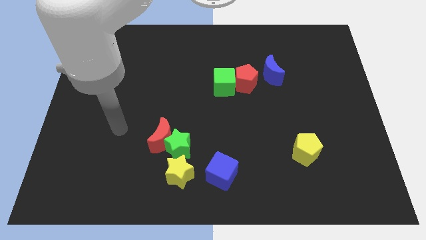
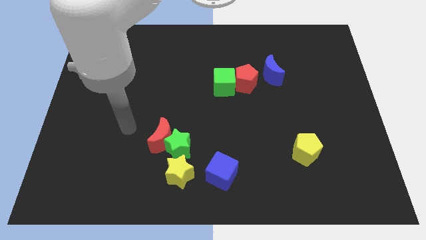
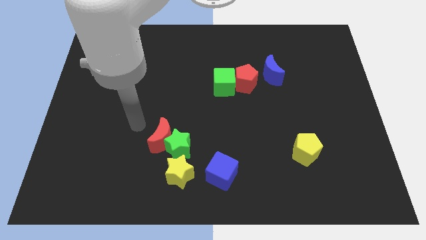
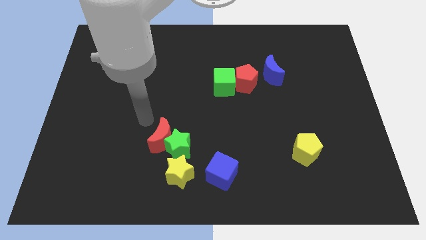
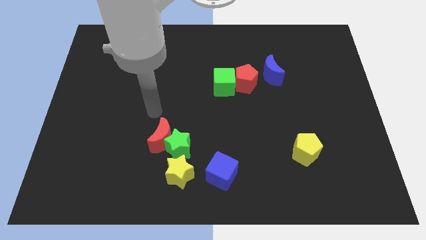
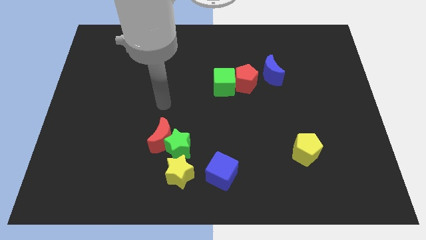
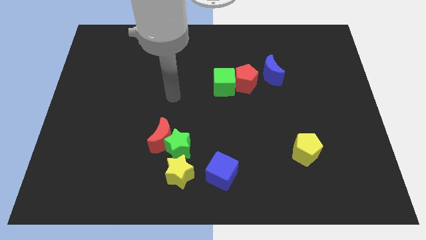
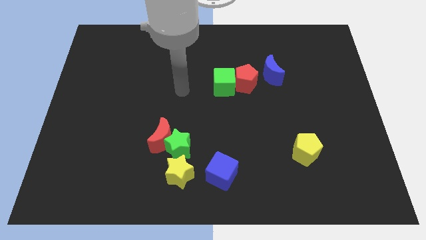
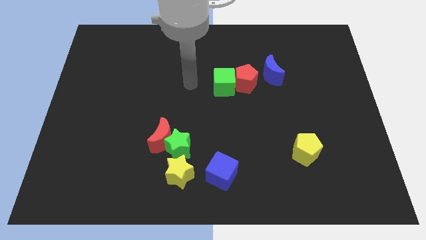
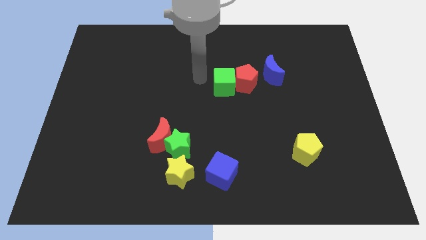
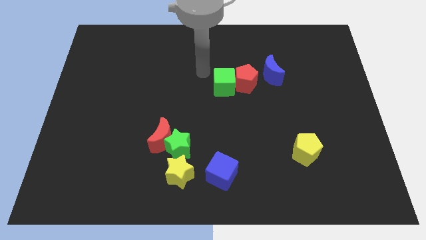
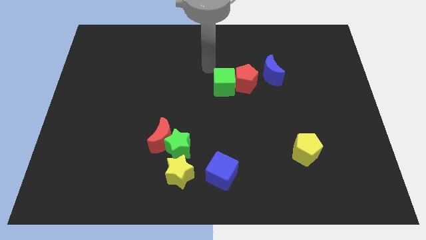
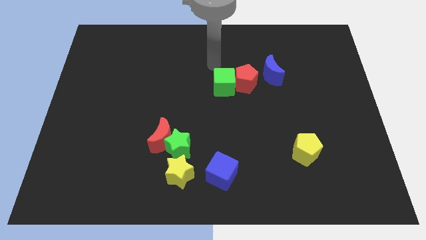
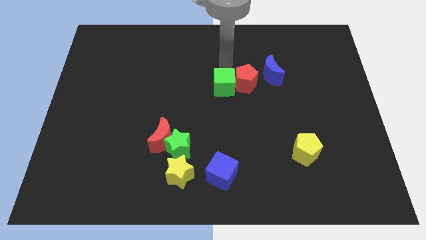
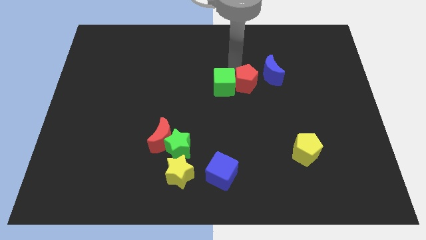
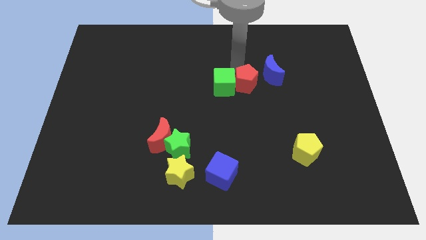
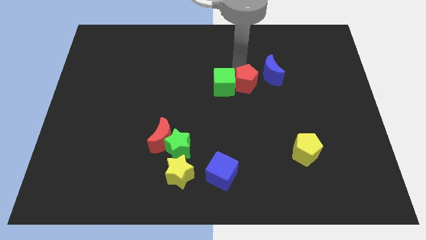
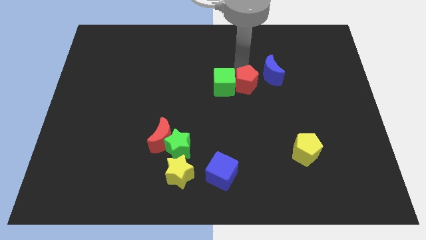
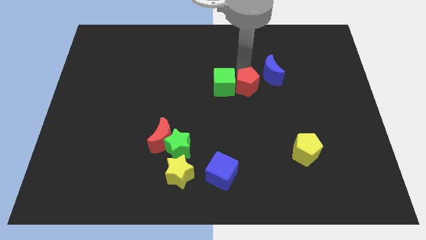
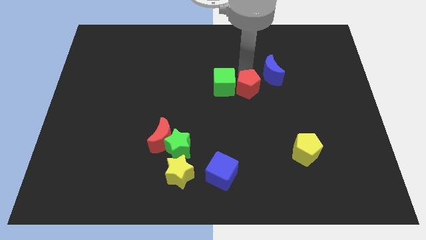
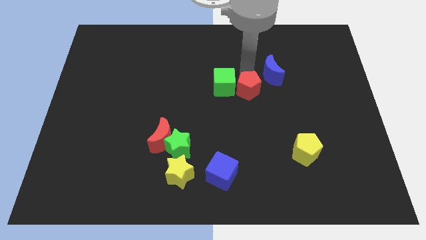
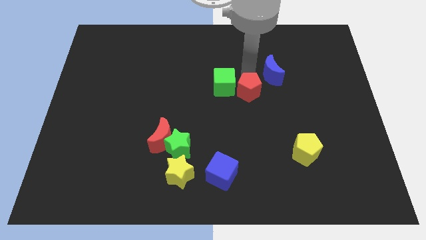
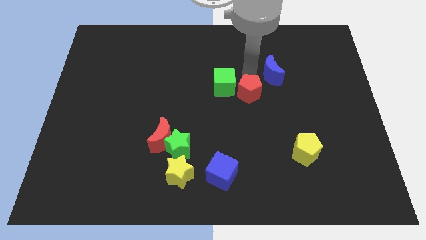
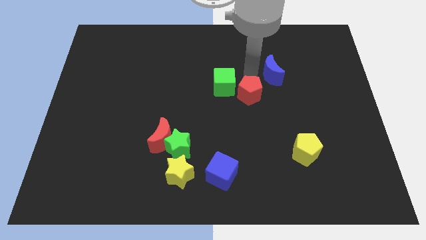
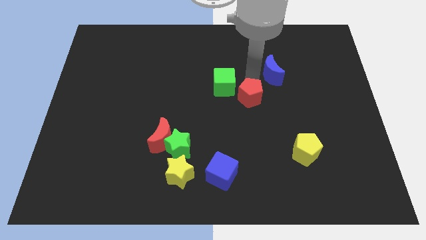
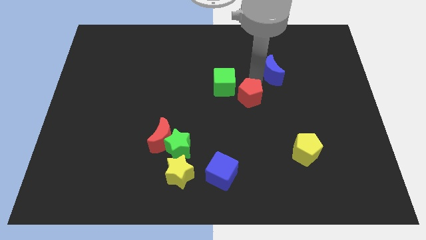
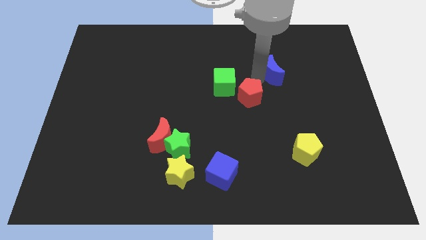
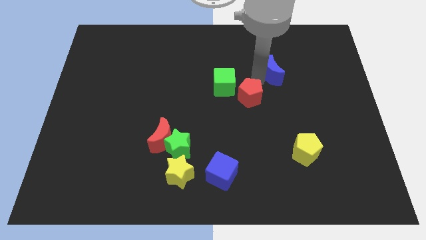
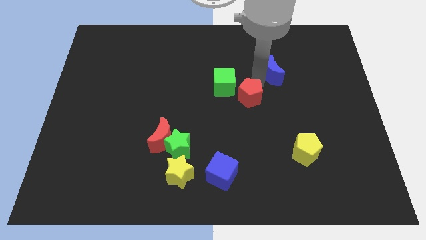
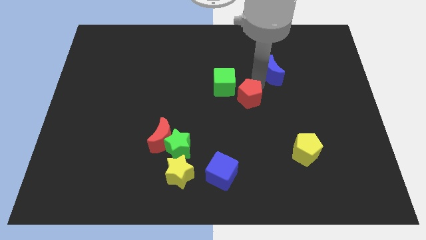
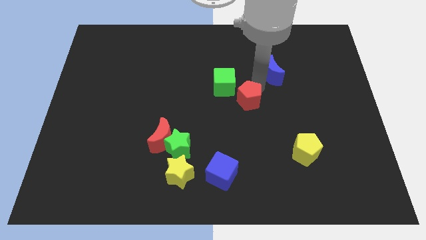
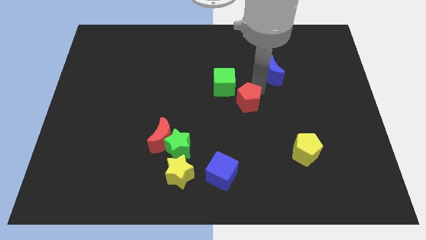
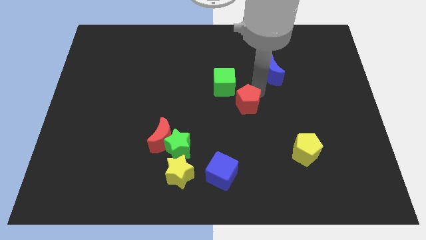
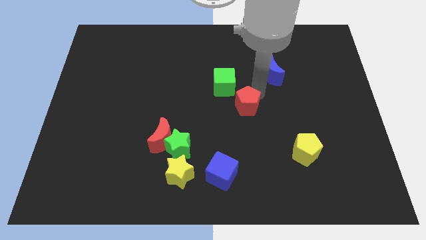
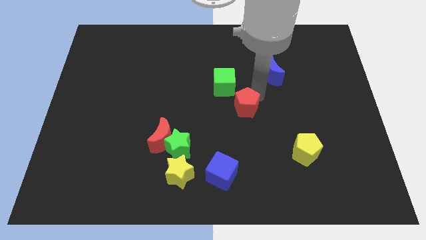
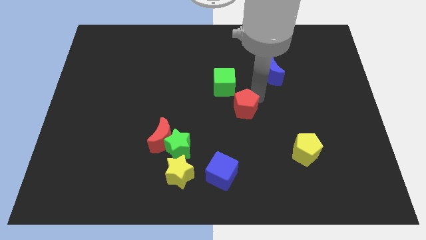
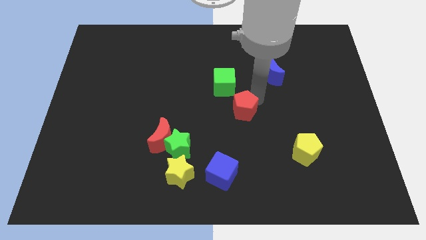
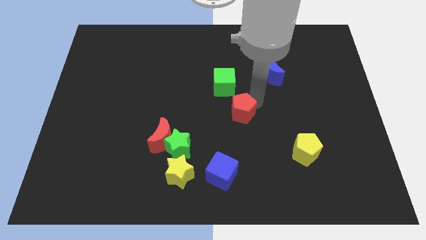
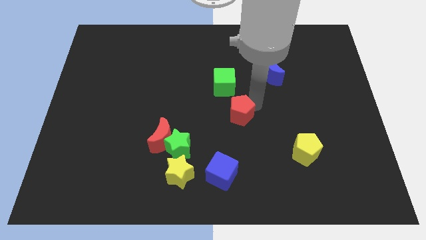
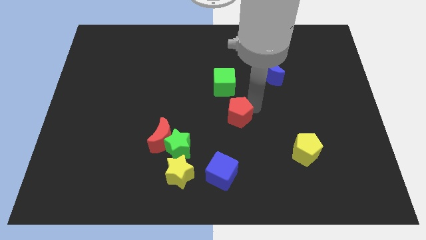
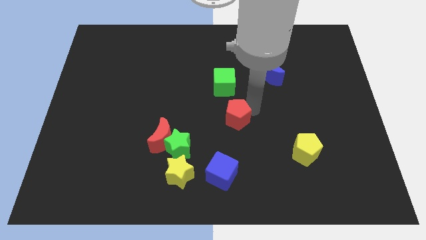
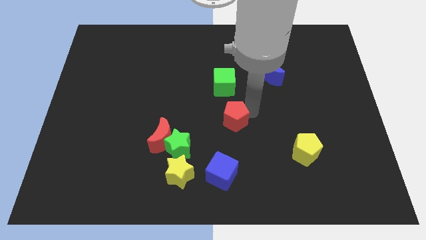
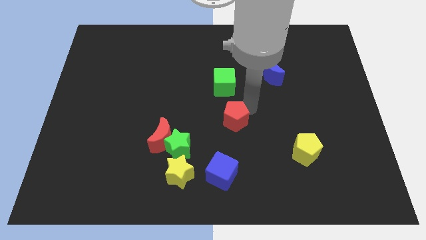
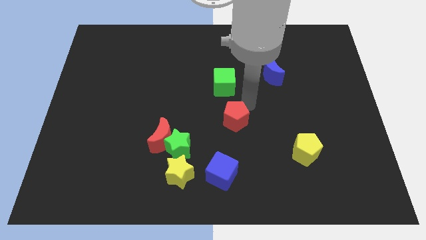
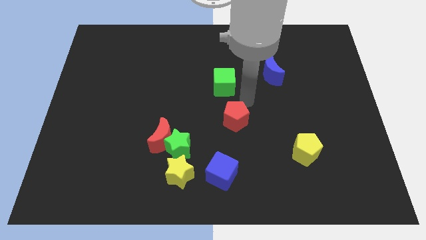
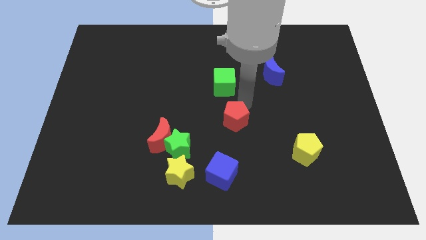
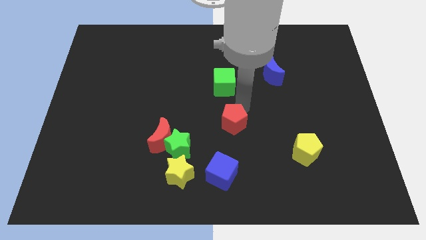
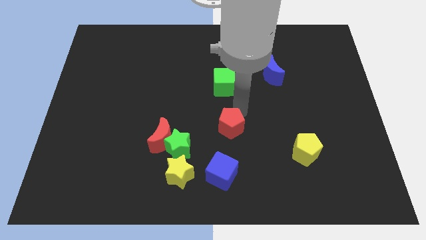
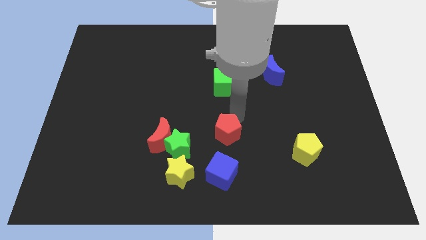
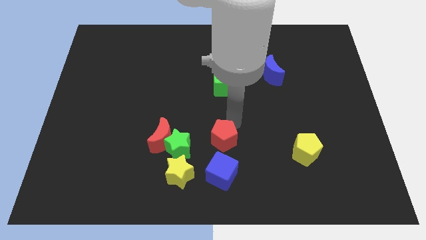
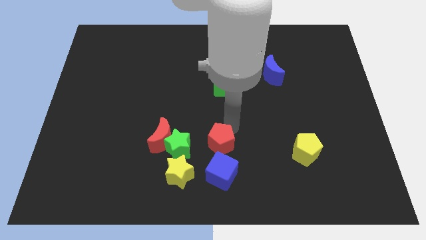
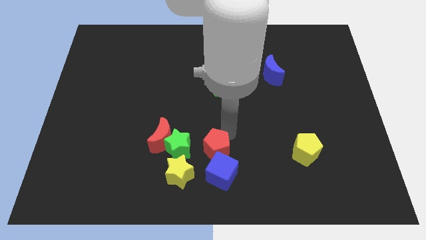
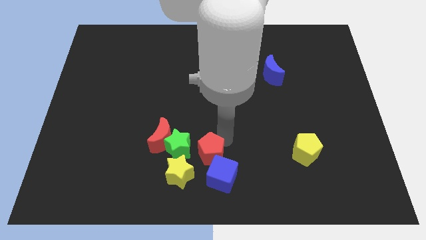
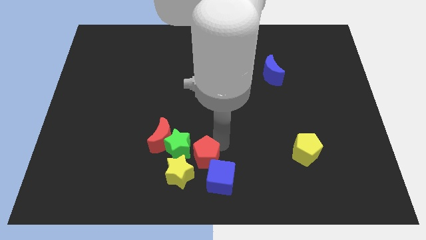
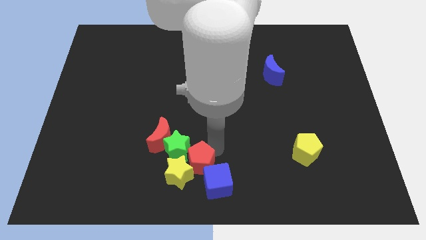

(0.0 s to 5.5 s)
move the red pentagon close to the yellow star

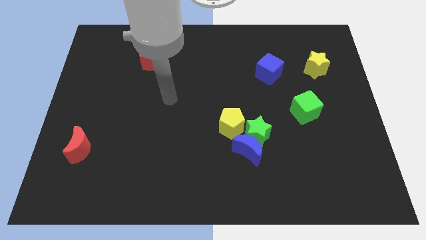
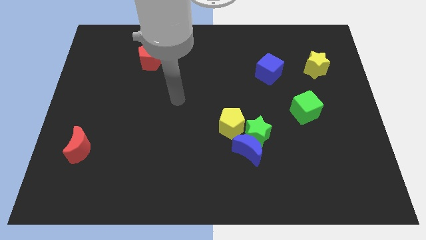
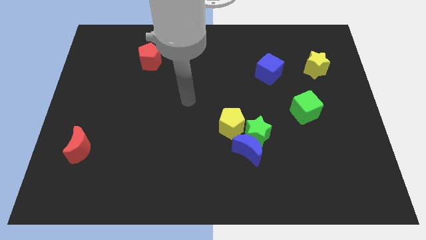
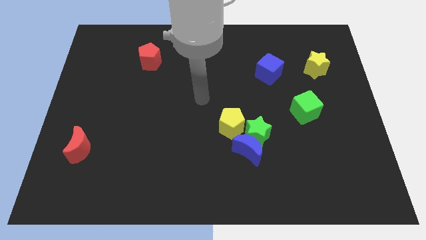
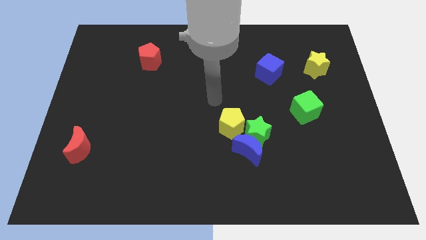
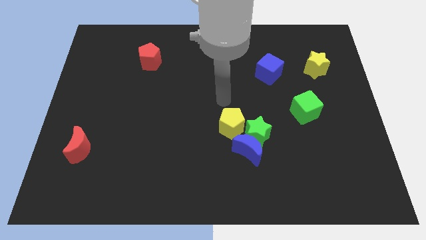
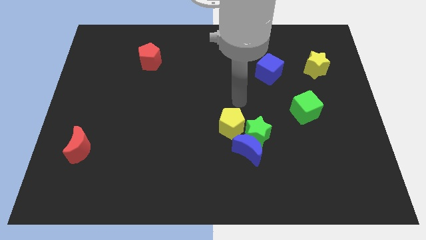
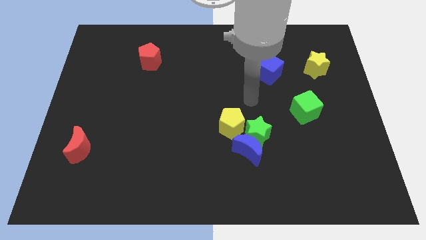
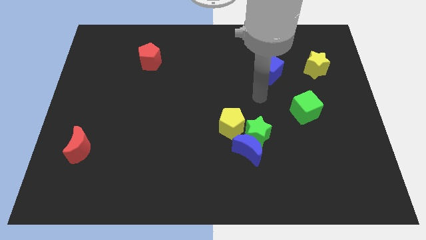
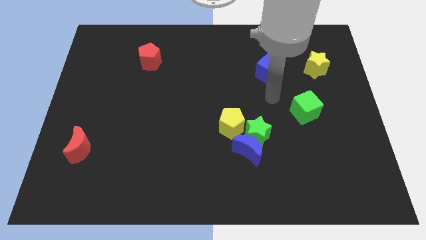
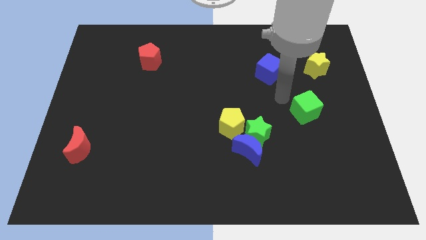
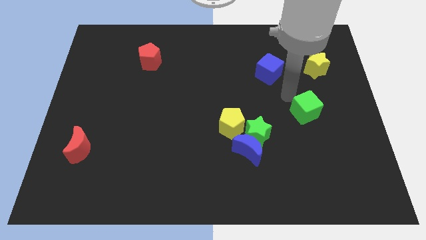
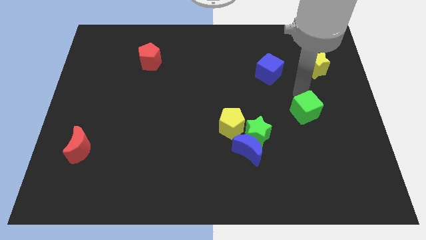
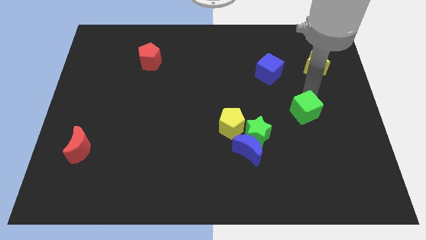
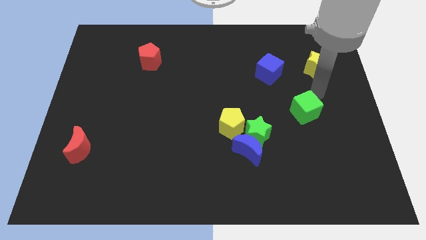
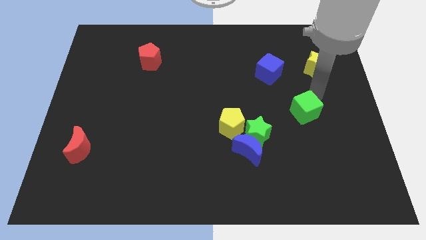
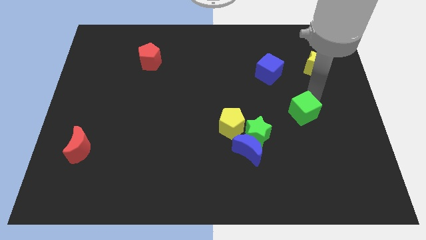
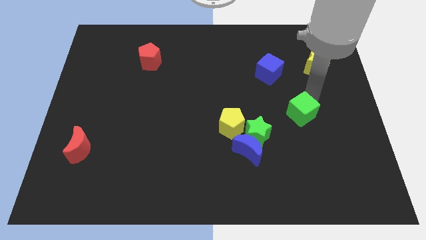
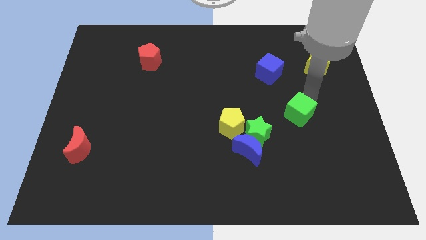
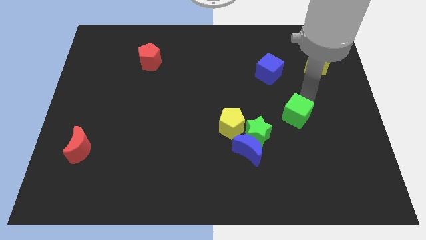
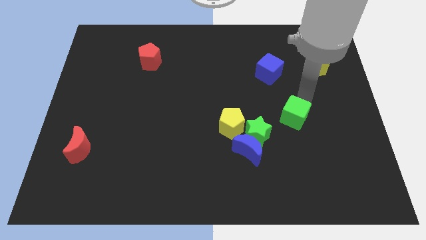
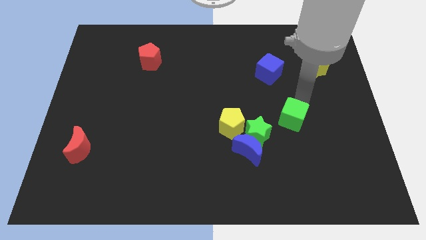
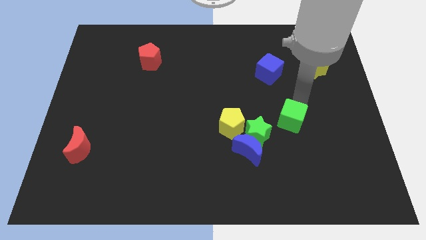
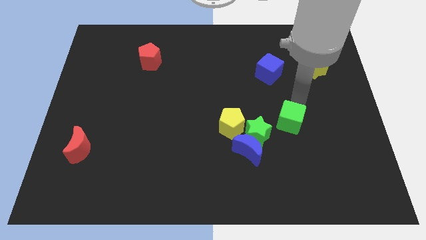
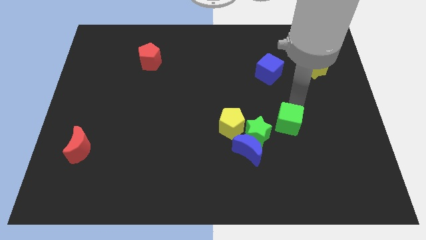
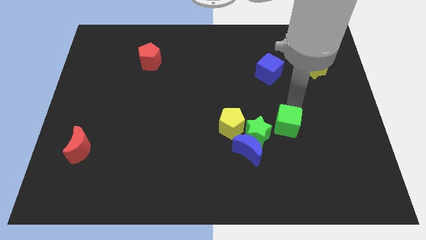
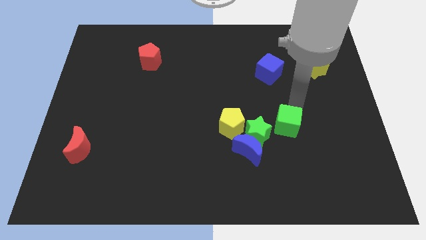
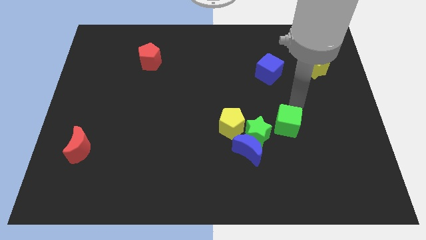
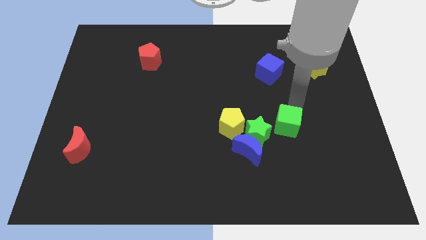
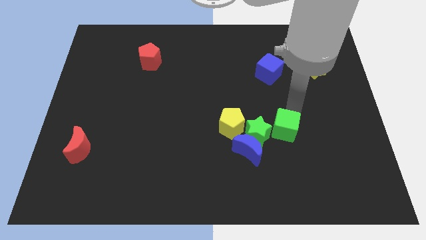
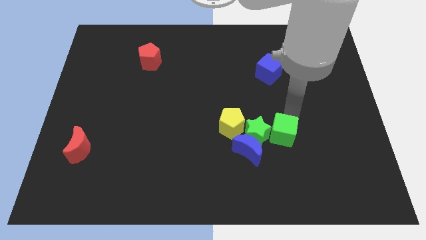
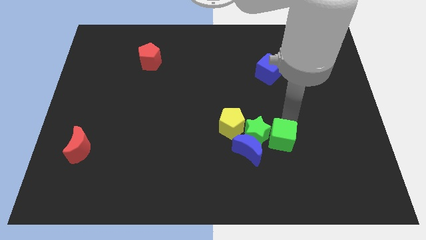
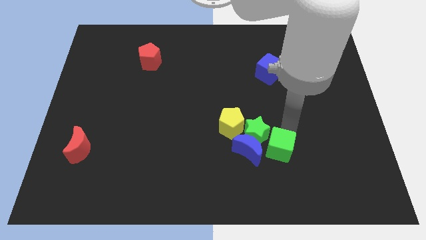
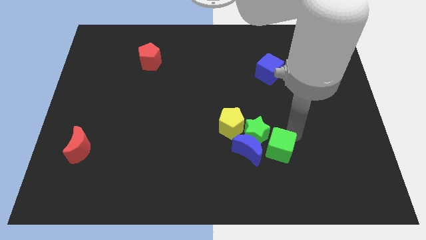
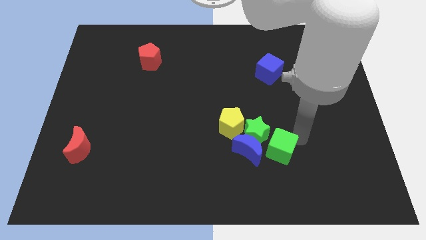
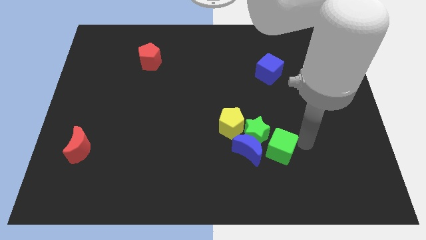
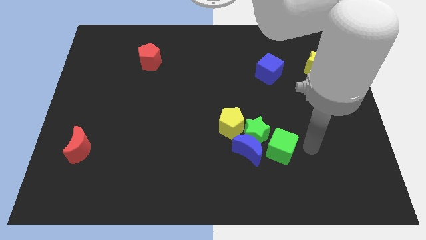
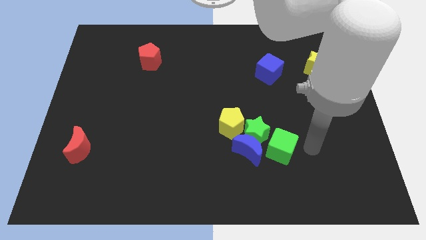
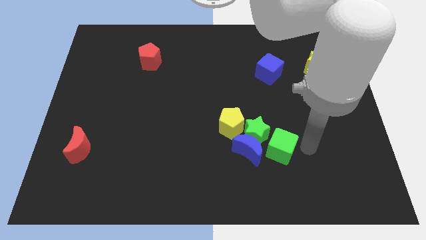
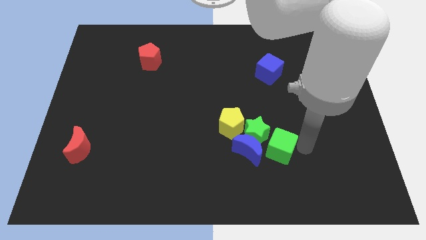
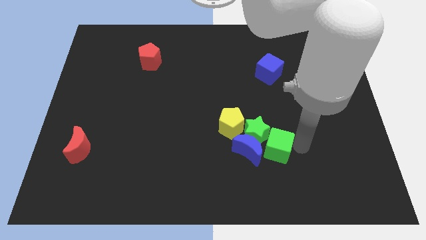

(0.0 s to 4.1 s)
slide the green cube to the blue moon
